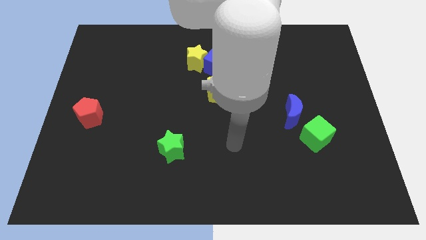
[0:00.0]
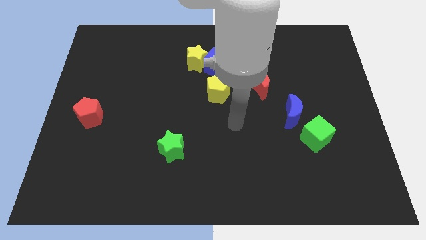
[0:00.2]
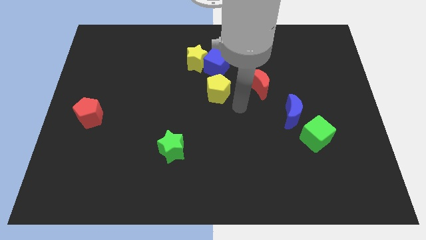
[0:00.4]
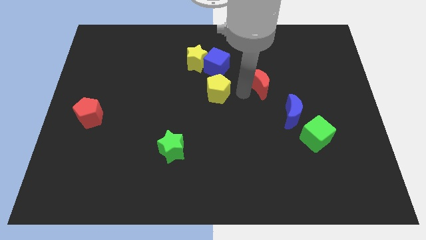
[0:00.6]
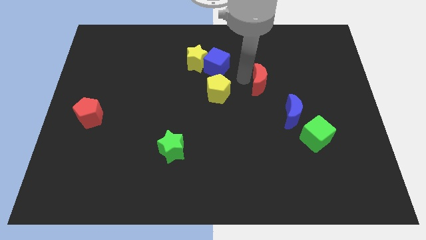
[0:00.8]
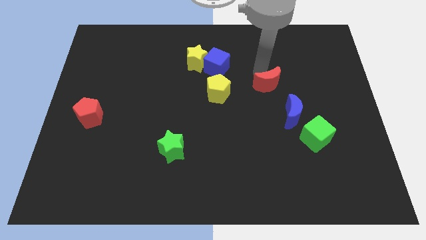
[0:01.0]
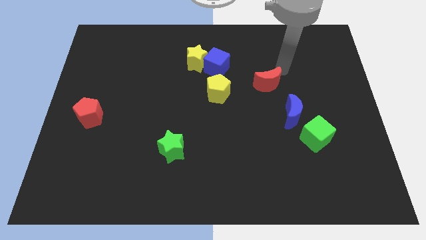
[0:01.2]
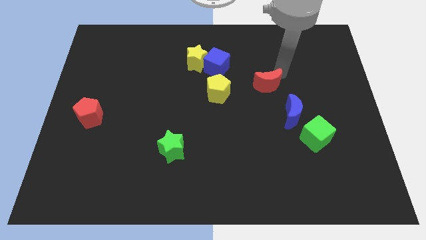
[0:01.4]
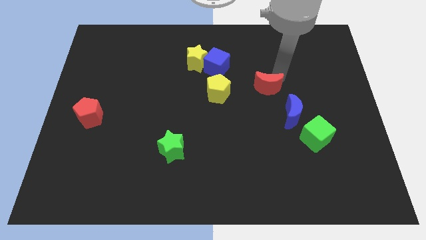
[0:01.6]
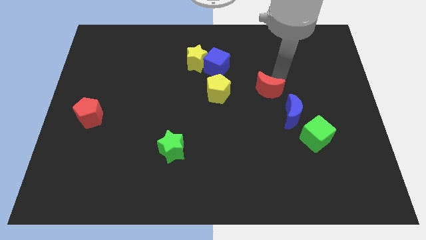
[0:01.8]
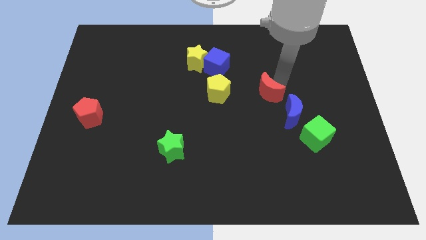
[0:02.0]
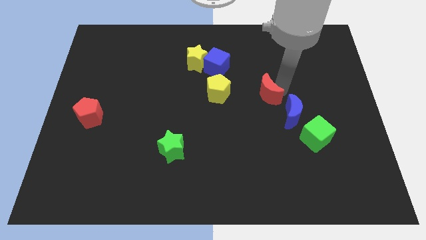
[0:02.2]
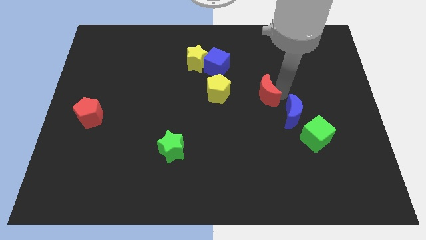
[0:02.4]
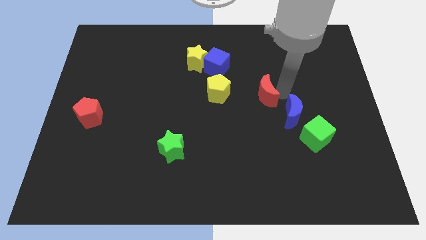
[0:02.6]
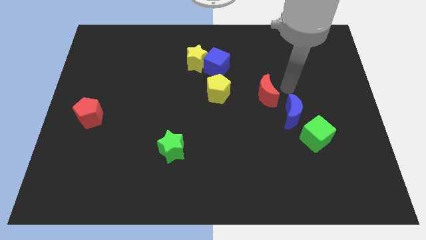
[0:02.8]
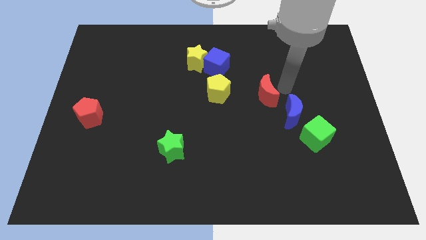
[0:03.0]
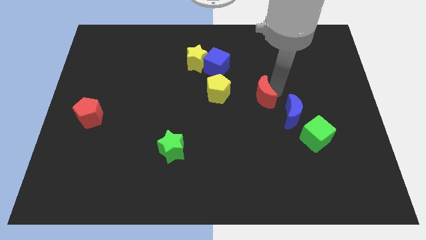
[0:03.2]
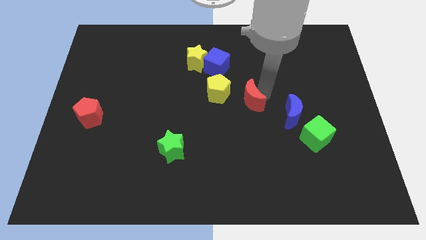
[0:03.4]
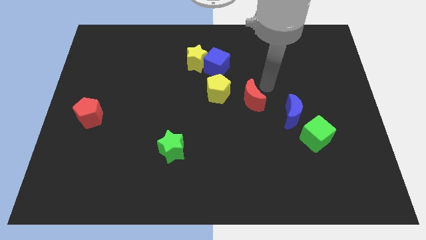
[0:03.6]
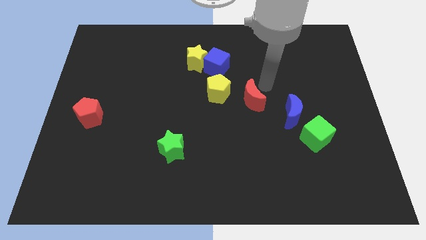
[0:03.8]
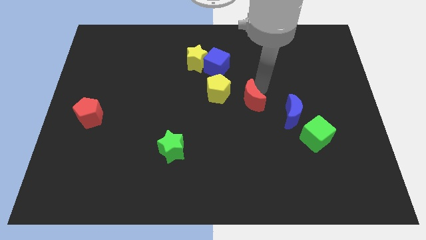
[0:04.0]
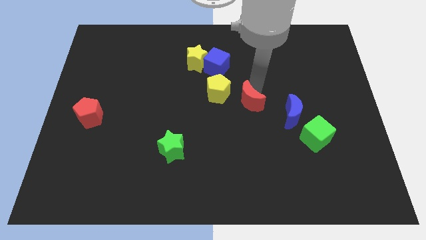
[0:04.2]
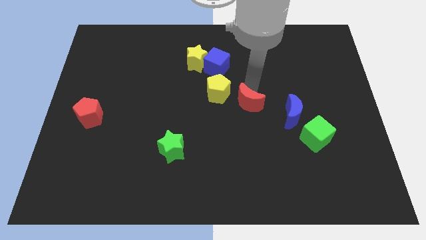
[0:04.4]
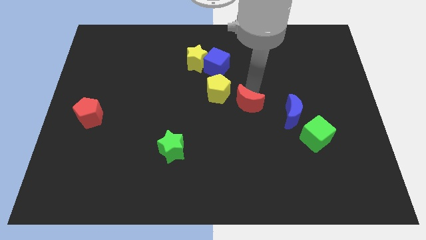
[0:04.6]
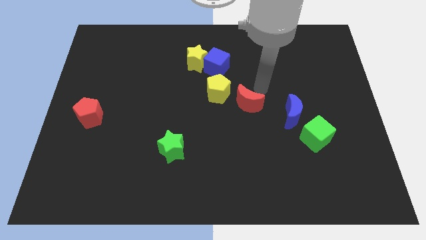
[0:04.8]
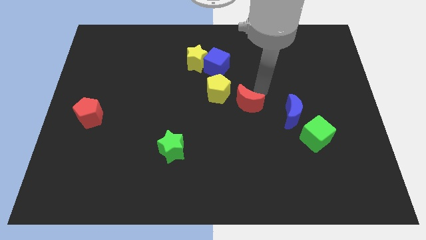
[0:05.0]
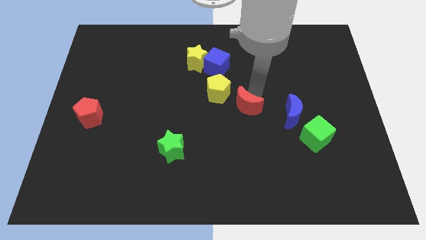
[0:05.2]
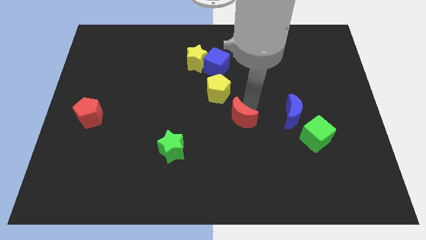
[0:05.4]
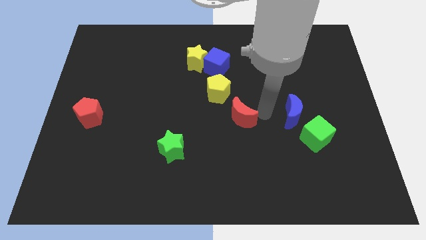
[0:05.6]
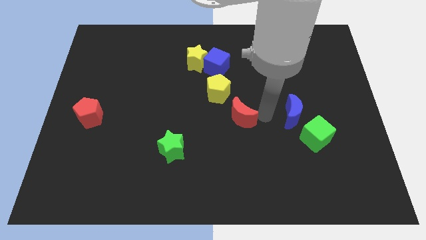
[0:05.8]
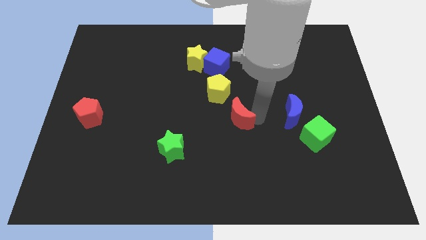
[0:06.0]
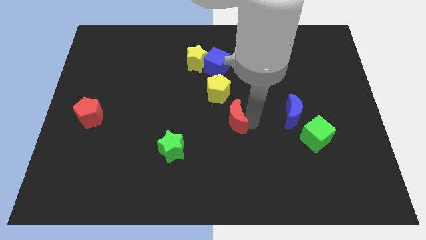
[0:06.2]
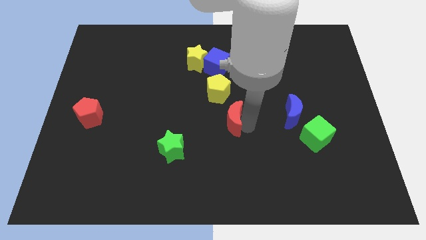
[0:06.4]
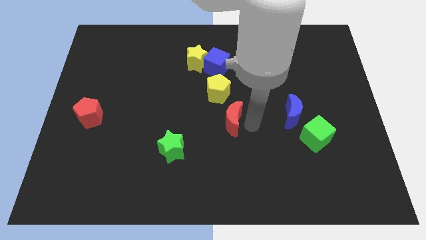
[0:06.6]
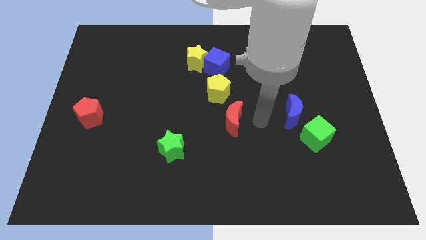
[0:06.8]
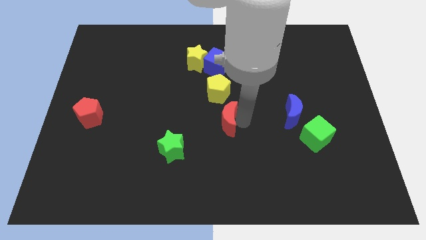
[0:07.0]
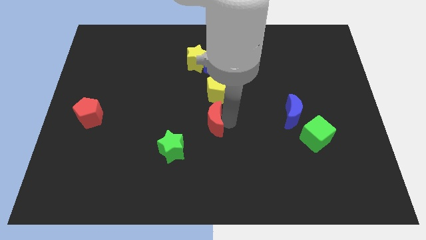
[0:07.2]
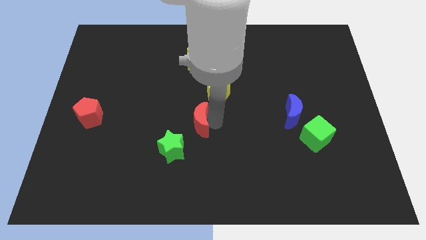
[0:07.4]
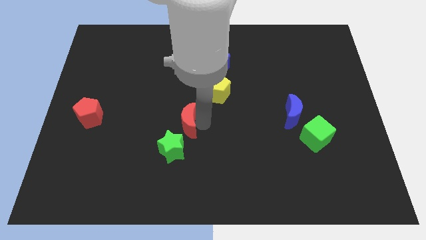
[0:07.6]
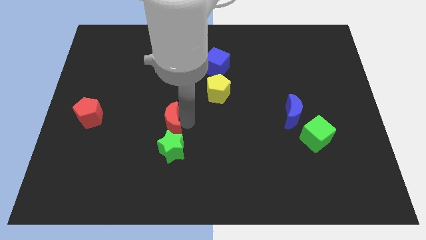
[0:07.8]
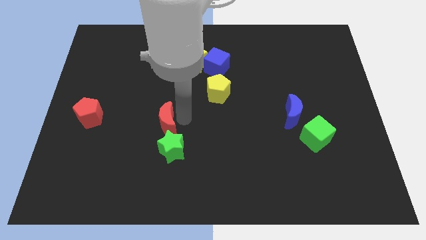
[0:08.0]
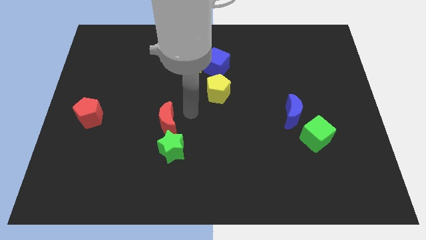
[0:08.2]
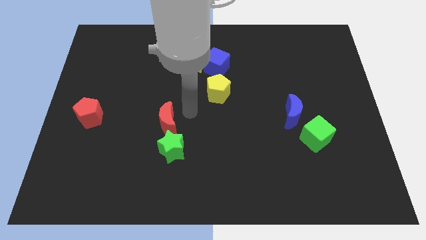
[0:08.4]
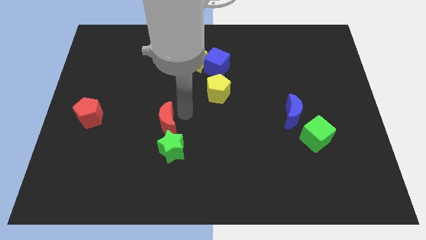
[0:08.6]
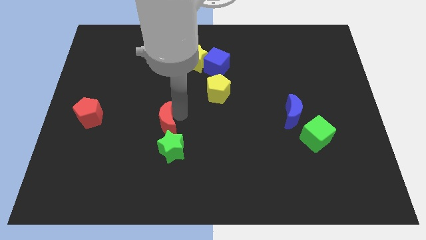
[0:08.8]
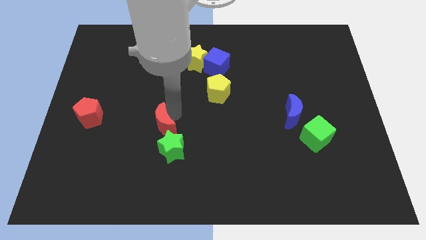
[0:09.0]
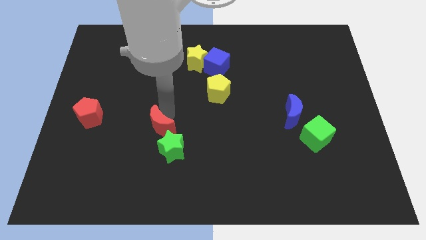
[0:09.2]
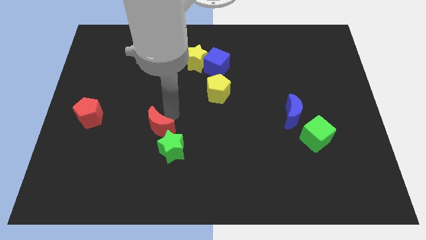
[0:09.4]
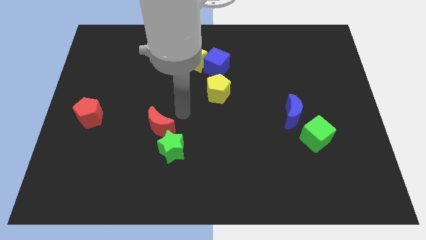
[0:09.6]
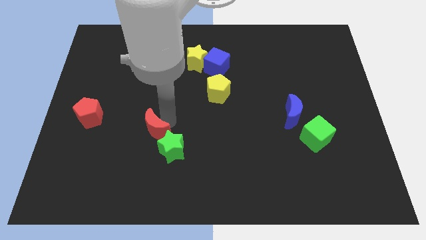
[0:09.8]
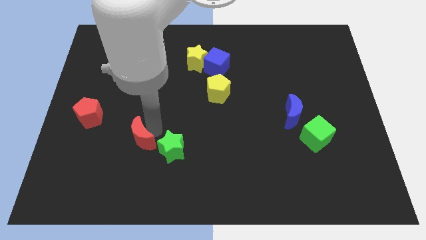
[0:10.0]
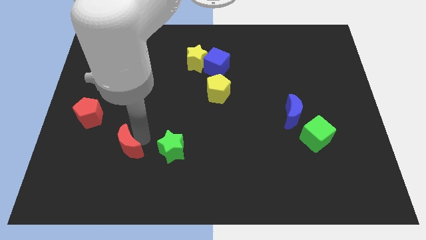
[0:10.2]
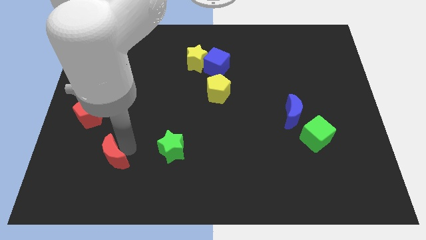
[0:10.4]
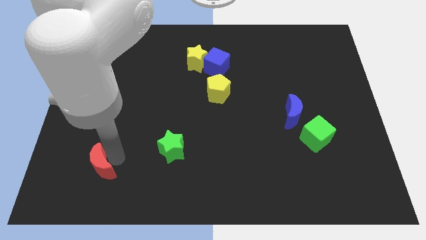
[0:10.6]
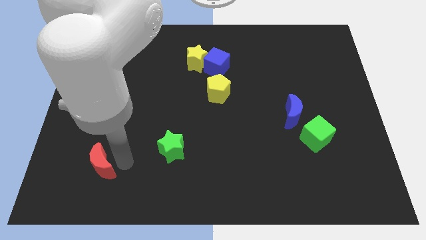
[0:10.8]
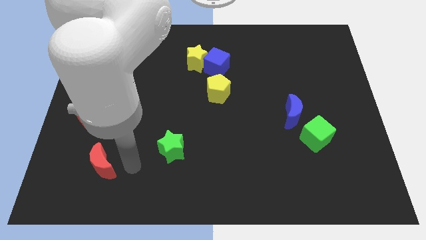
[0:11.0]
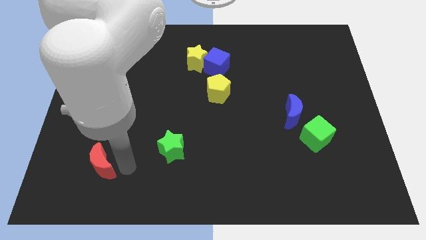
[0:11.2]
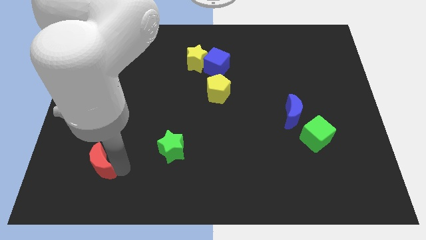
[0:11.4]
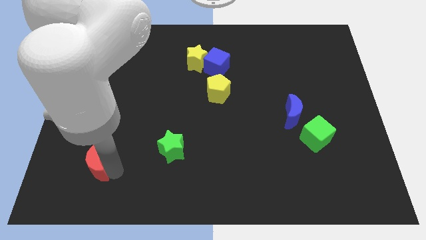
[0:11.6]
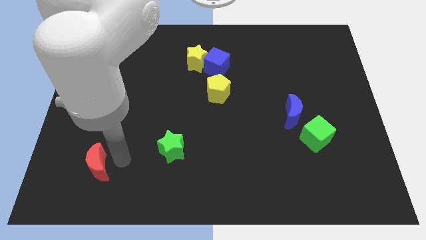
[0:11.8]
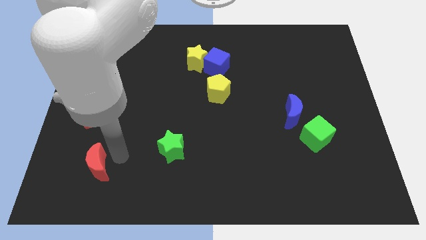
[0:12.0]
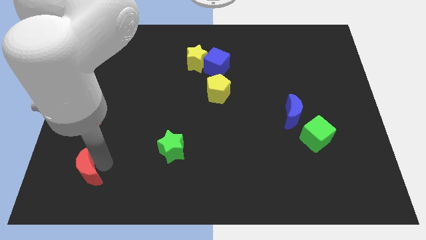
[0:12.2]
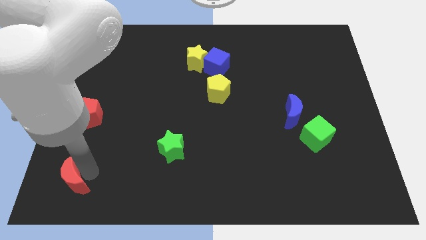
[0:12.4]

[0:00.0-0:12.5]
move the red moon to the bottom left corner

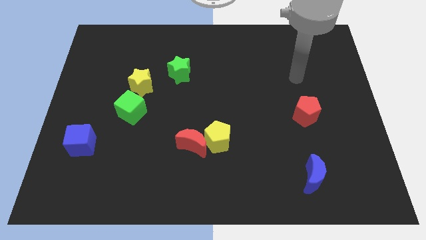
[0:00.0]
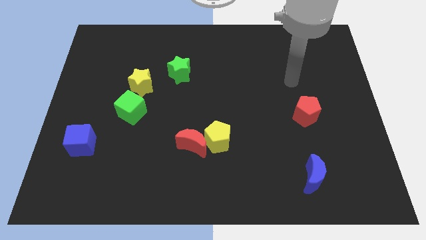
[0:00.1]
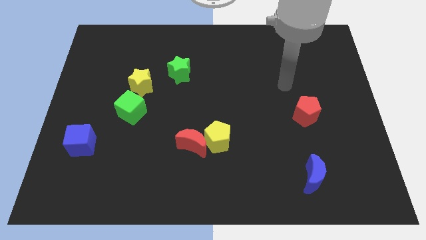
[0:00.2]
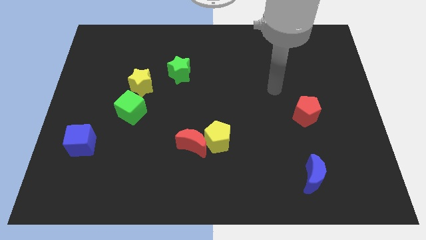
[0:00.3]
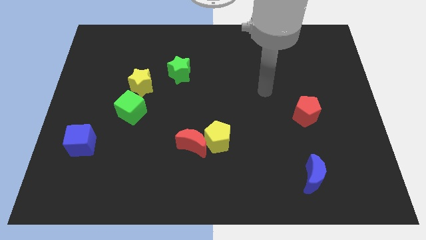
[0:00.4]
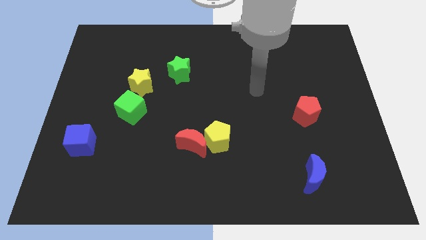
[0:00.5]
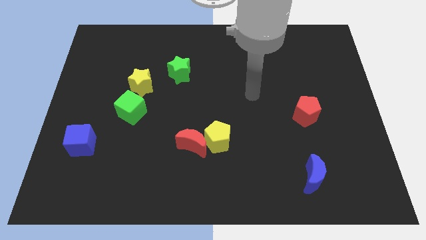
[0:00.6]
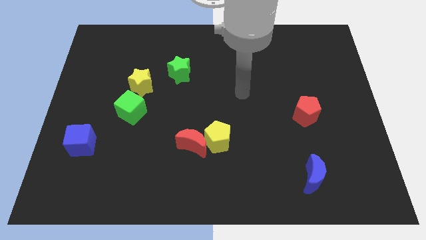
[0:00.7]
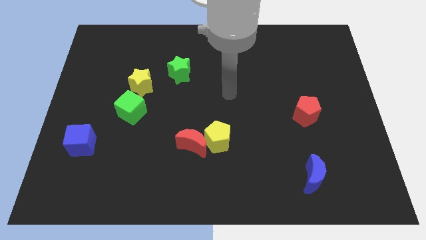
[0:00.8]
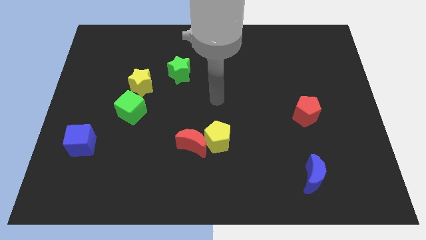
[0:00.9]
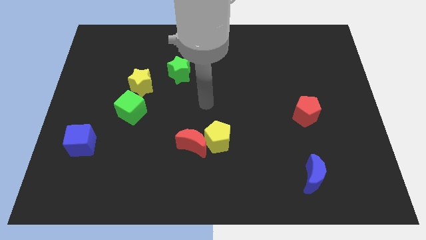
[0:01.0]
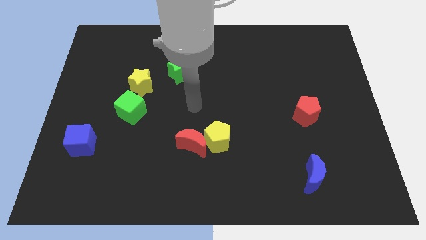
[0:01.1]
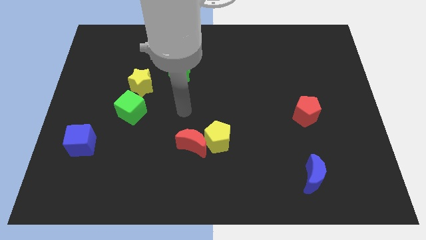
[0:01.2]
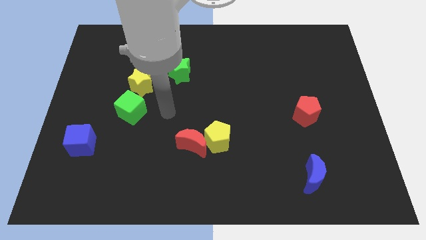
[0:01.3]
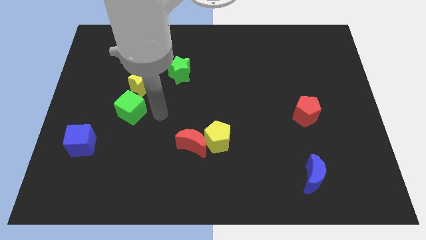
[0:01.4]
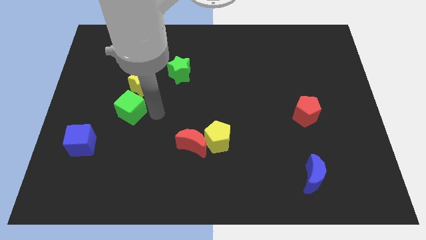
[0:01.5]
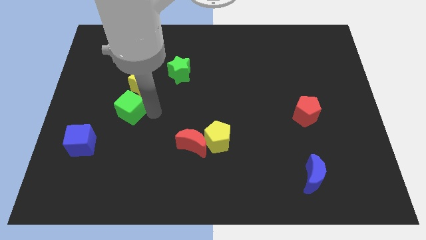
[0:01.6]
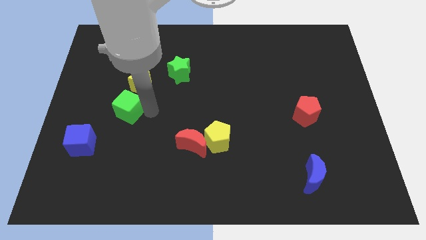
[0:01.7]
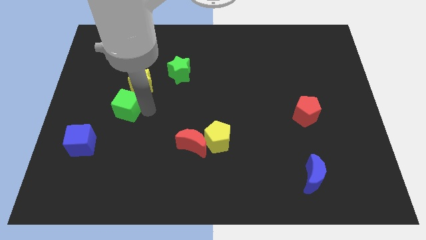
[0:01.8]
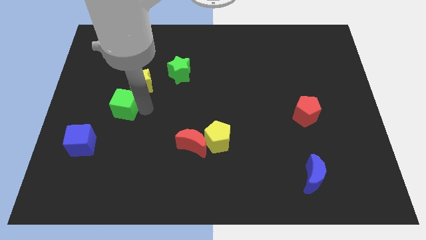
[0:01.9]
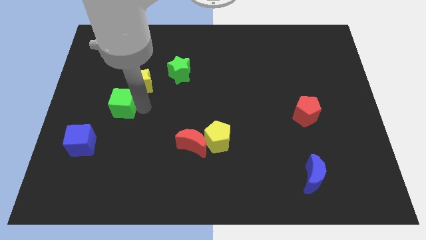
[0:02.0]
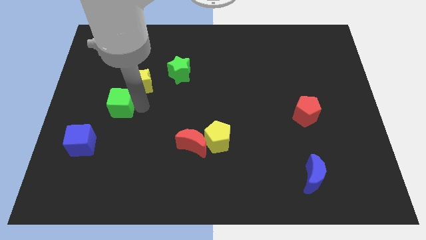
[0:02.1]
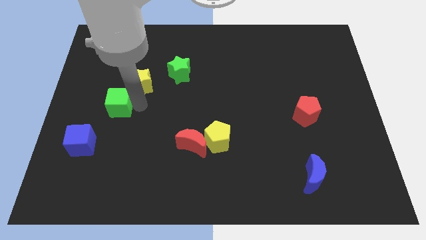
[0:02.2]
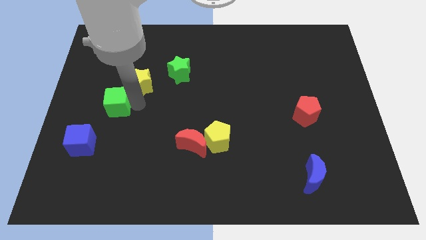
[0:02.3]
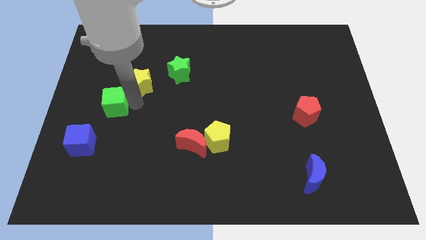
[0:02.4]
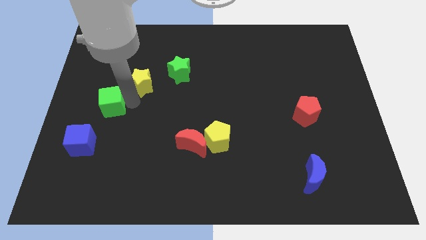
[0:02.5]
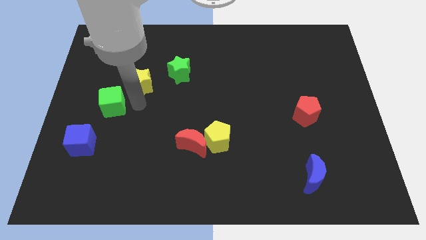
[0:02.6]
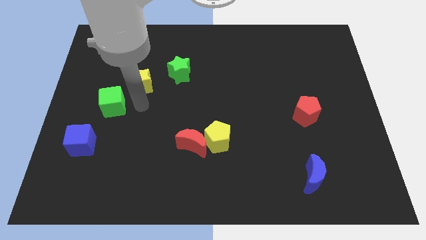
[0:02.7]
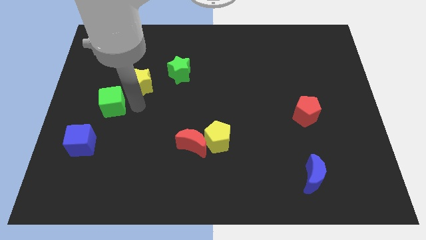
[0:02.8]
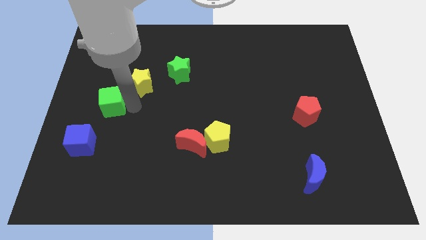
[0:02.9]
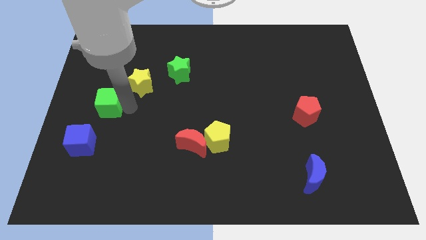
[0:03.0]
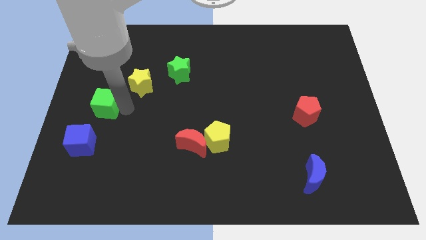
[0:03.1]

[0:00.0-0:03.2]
slide the green cube to the center left
